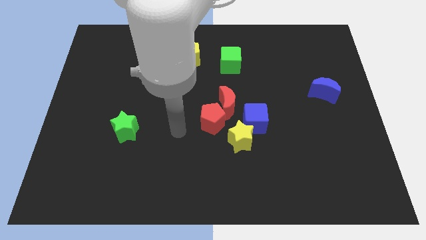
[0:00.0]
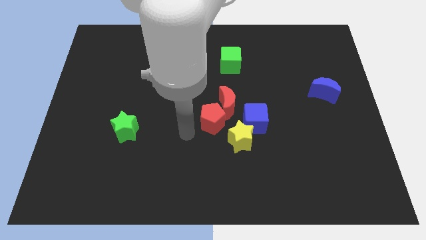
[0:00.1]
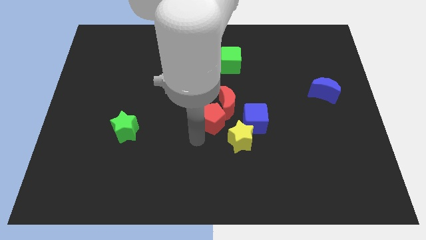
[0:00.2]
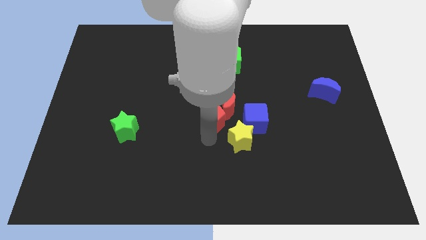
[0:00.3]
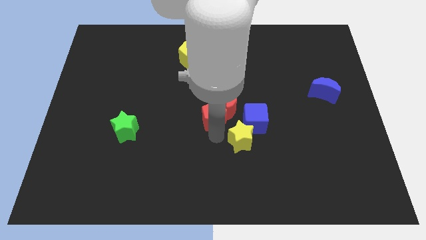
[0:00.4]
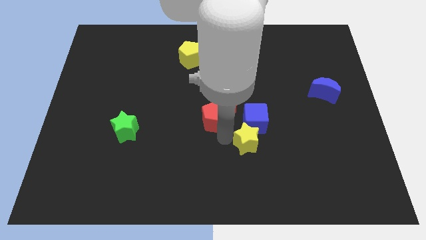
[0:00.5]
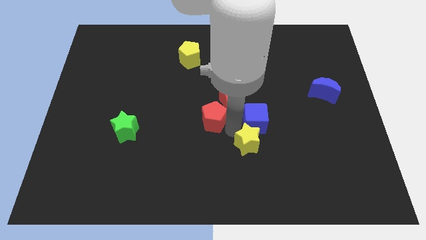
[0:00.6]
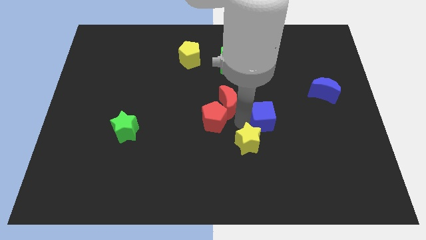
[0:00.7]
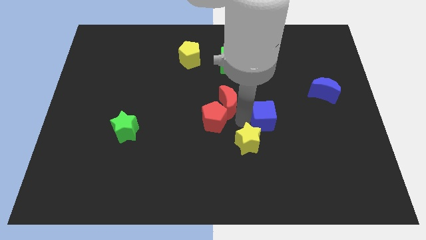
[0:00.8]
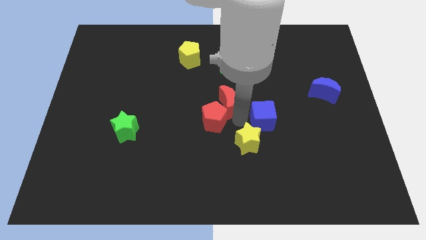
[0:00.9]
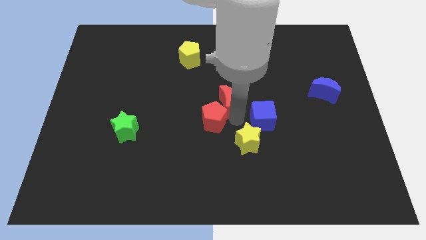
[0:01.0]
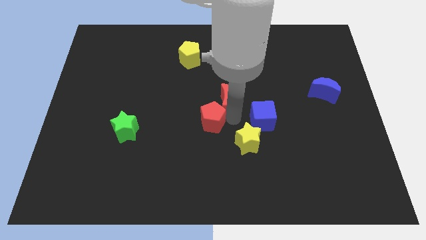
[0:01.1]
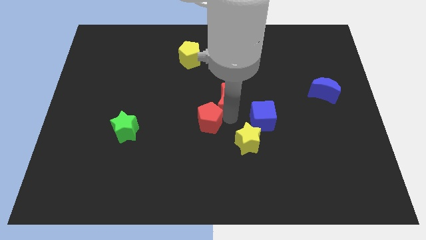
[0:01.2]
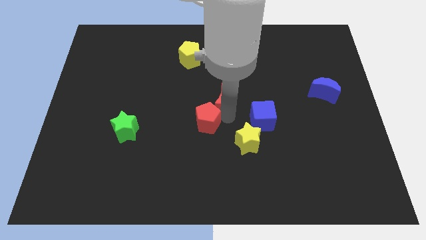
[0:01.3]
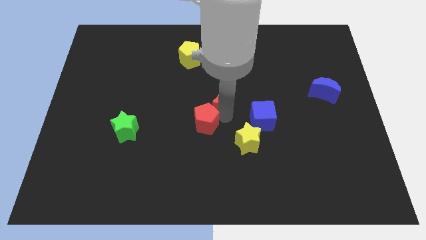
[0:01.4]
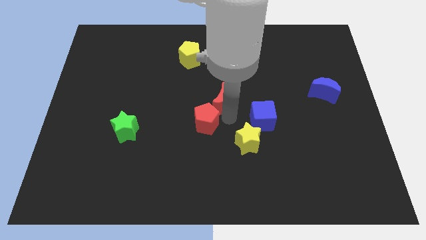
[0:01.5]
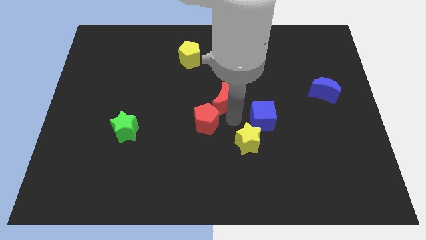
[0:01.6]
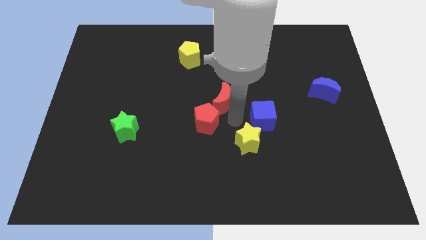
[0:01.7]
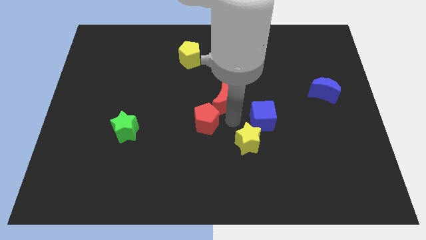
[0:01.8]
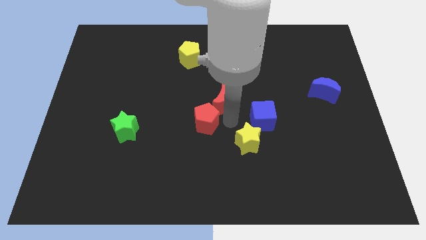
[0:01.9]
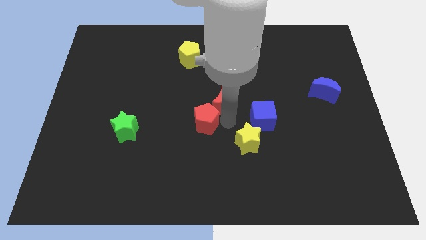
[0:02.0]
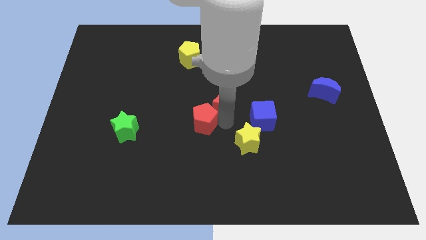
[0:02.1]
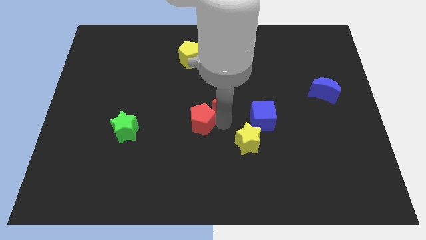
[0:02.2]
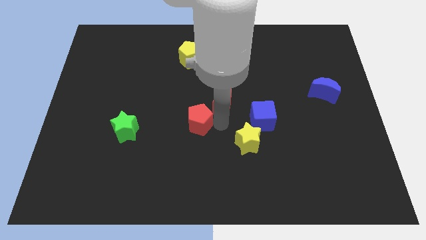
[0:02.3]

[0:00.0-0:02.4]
separate the red pentagon from the red moon, yellow star, and blue cube

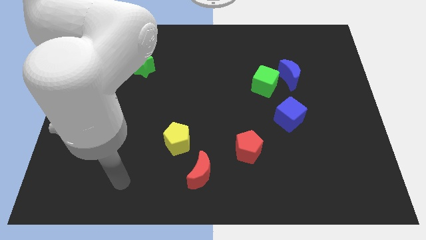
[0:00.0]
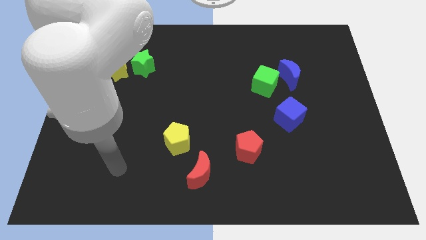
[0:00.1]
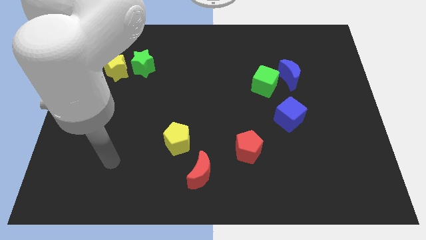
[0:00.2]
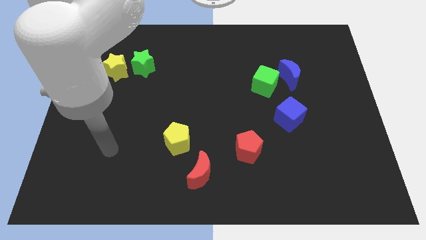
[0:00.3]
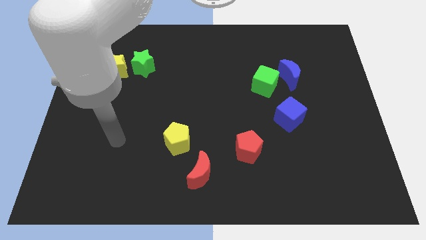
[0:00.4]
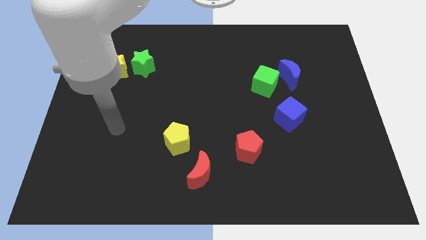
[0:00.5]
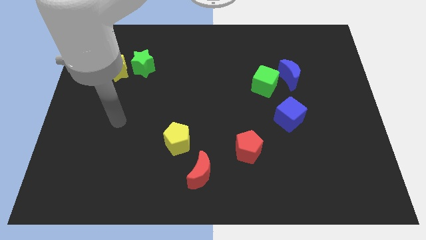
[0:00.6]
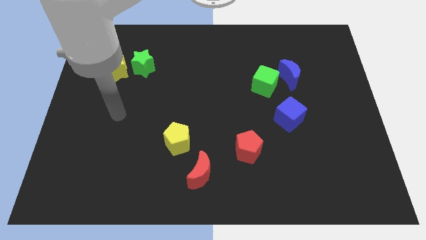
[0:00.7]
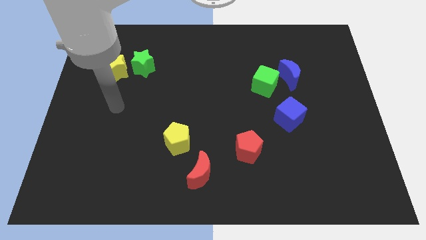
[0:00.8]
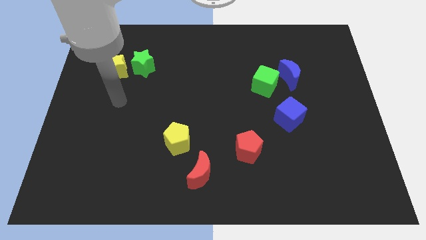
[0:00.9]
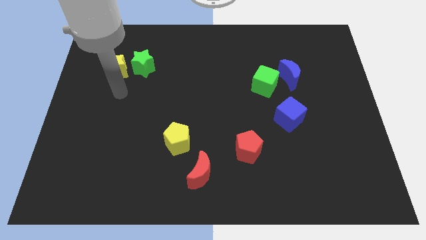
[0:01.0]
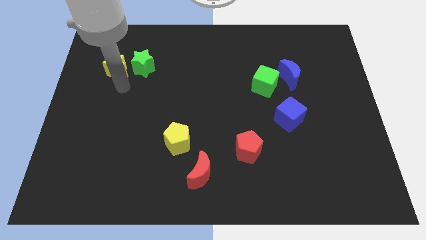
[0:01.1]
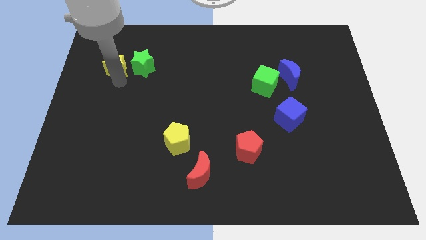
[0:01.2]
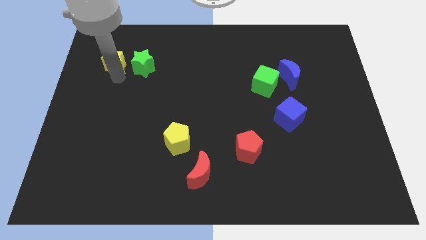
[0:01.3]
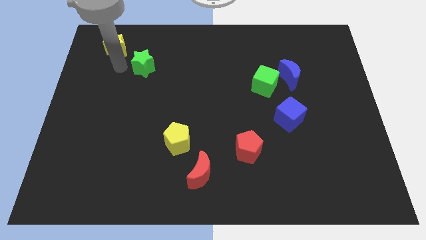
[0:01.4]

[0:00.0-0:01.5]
pull the green star apart from the yellow star

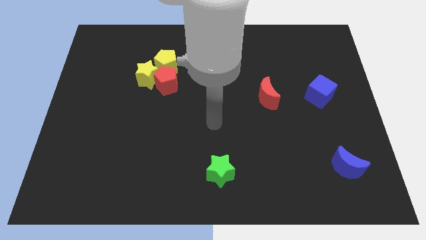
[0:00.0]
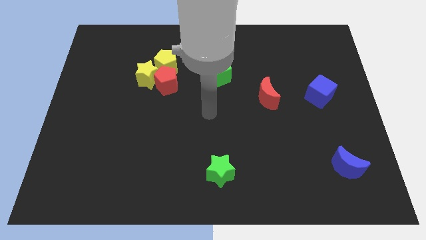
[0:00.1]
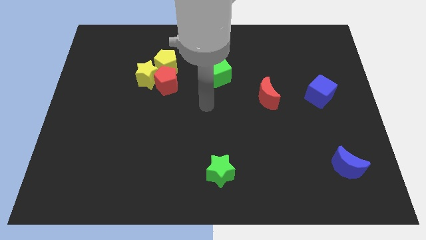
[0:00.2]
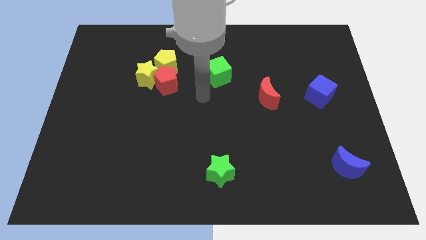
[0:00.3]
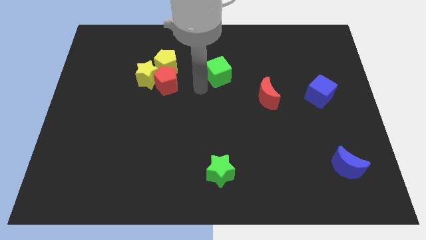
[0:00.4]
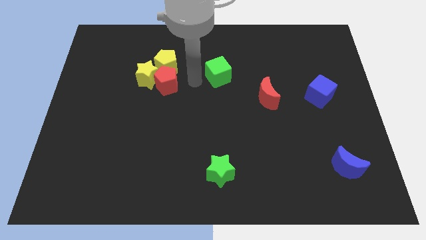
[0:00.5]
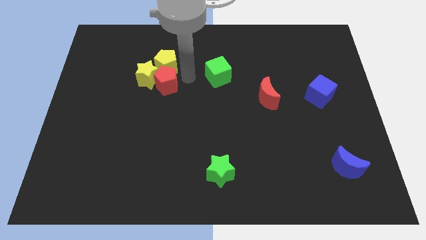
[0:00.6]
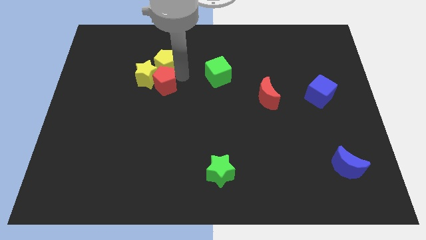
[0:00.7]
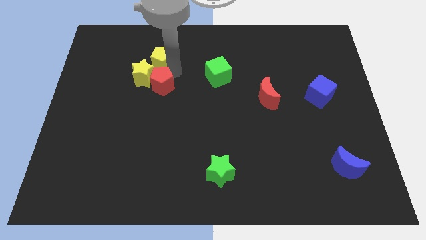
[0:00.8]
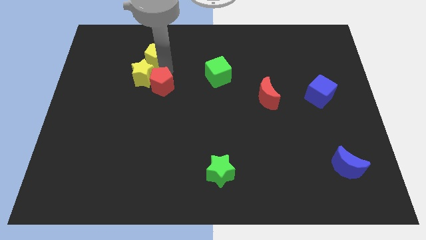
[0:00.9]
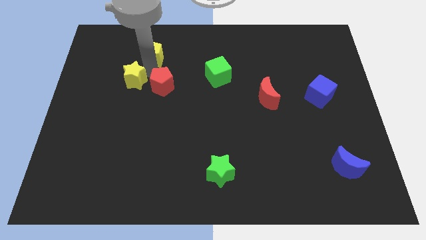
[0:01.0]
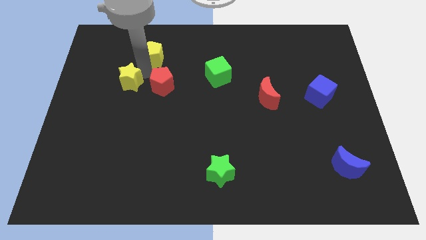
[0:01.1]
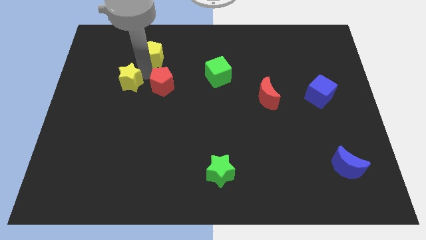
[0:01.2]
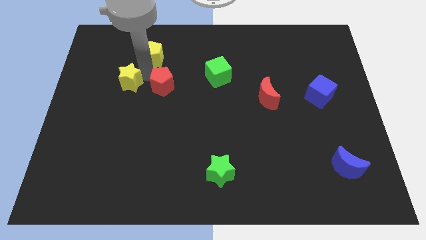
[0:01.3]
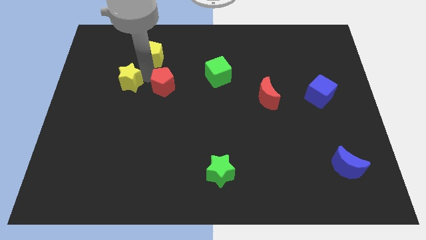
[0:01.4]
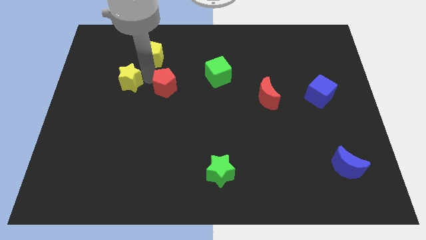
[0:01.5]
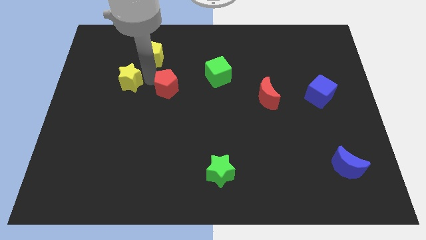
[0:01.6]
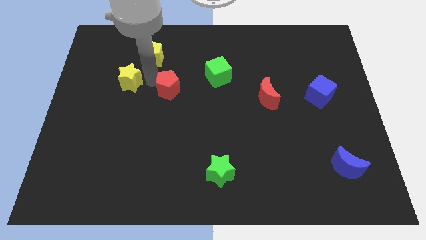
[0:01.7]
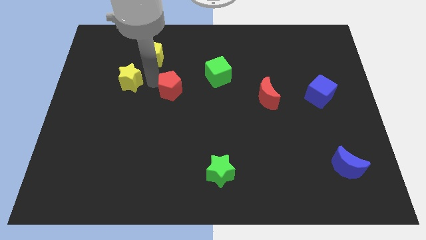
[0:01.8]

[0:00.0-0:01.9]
move the red pentagon away from the yellow star and yellow pentagon

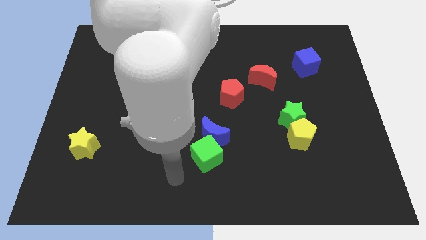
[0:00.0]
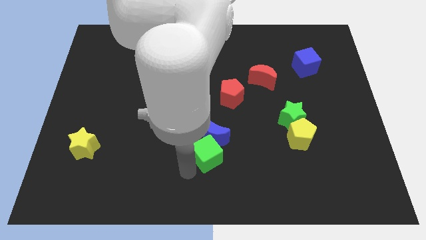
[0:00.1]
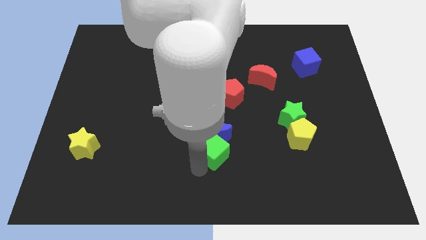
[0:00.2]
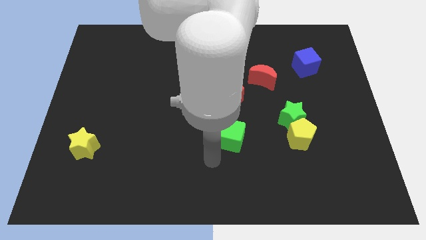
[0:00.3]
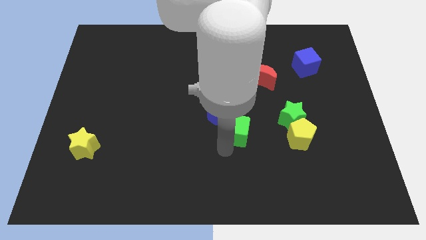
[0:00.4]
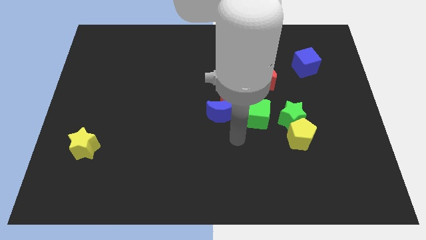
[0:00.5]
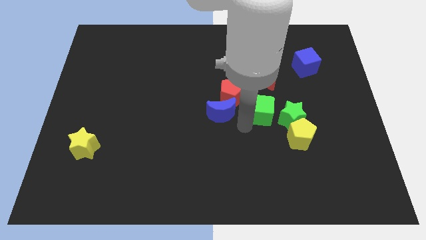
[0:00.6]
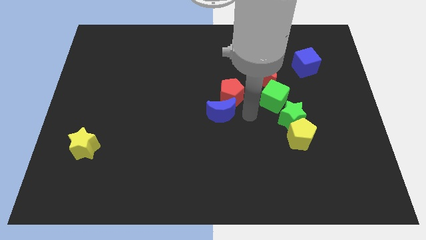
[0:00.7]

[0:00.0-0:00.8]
pull the blue moon apart from the green cube

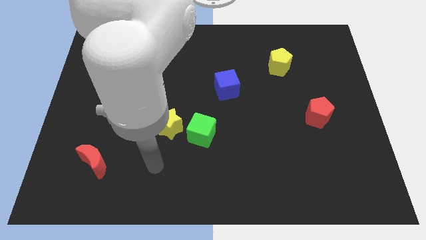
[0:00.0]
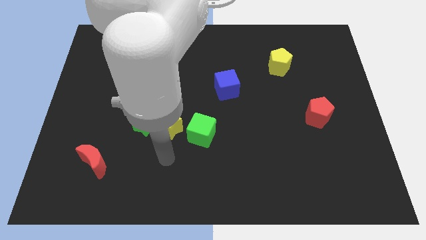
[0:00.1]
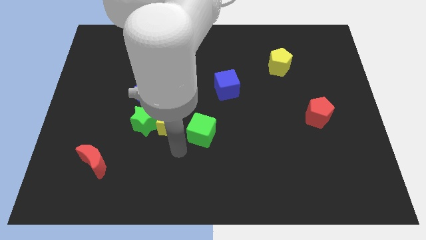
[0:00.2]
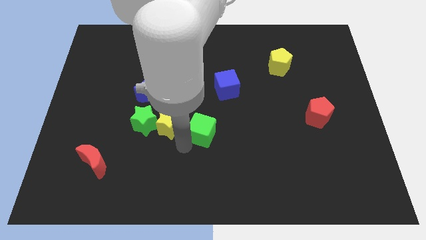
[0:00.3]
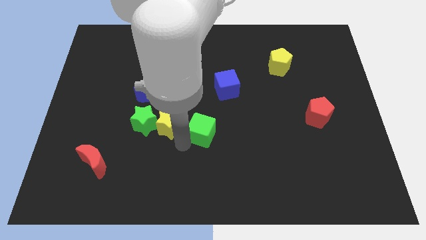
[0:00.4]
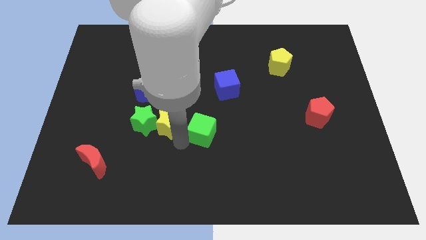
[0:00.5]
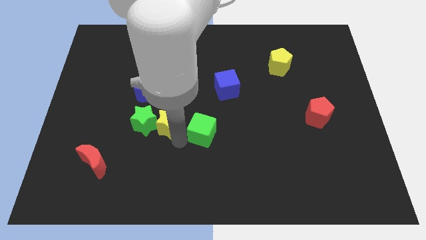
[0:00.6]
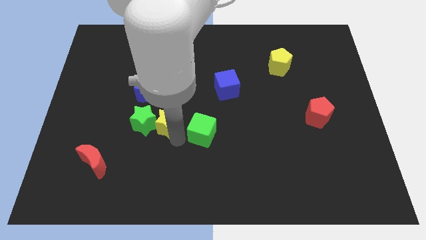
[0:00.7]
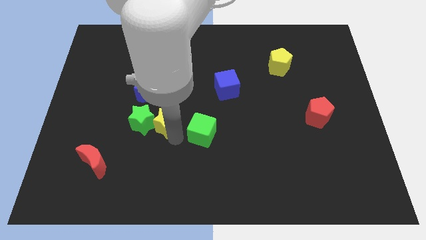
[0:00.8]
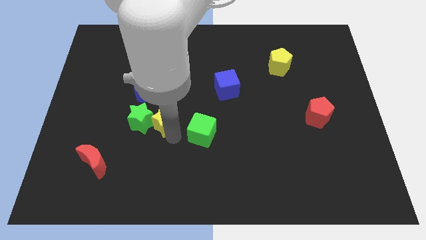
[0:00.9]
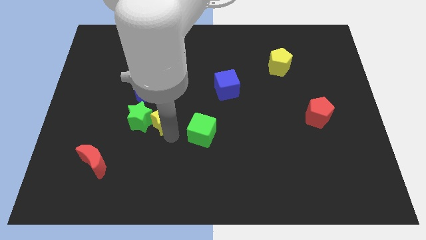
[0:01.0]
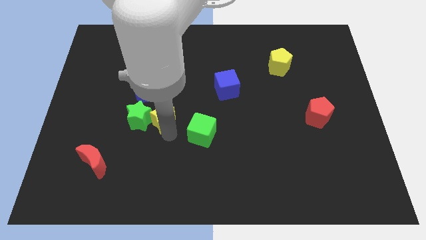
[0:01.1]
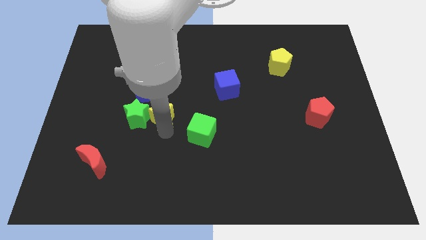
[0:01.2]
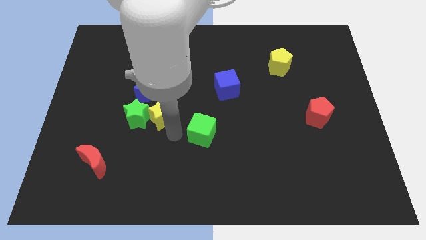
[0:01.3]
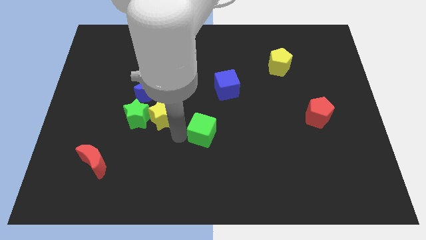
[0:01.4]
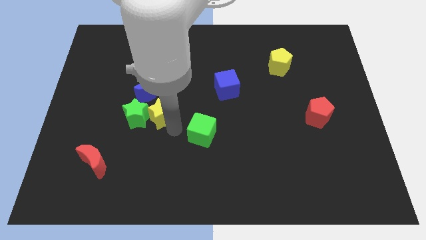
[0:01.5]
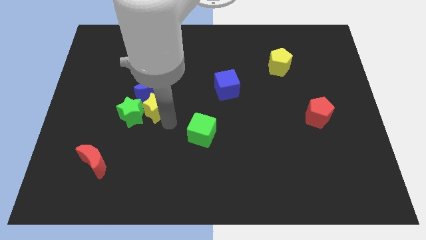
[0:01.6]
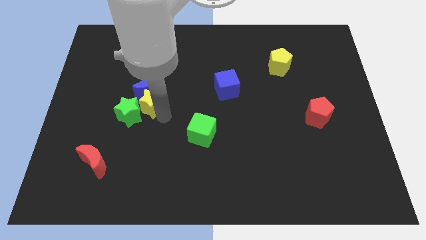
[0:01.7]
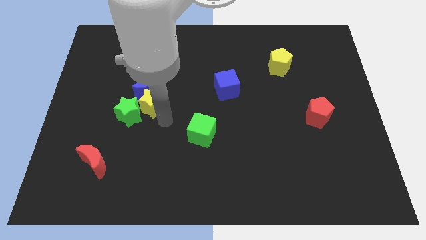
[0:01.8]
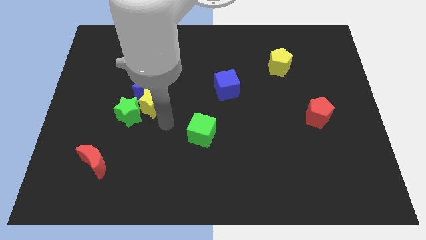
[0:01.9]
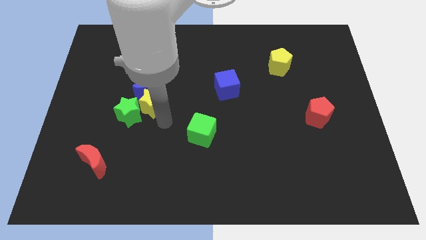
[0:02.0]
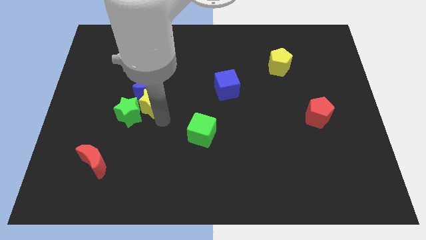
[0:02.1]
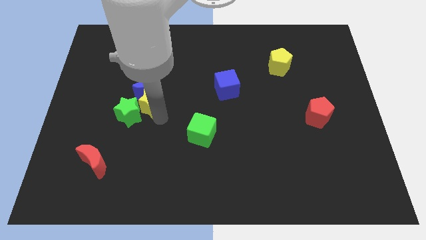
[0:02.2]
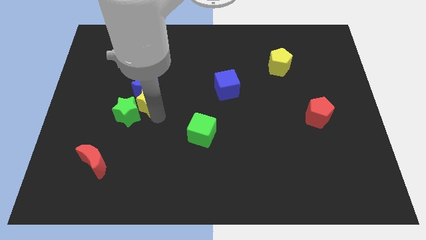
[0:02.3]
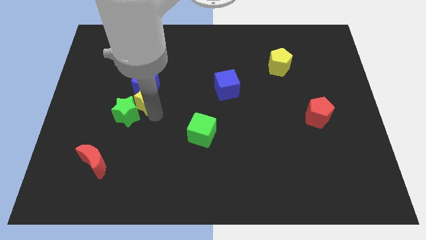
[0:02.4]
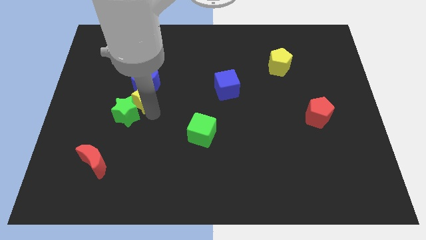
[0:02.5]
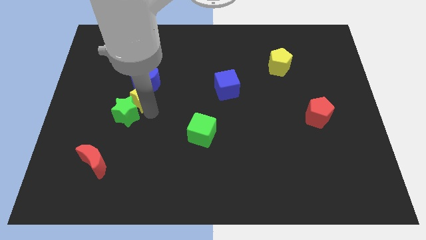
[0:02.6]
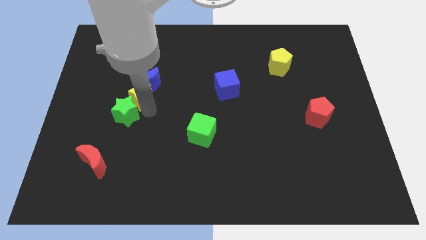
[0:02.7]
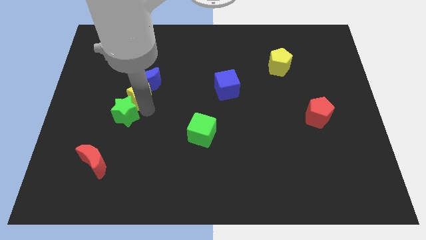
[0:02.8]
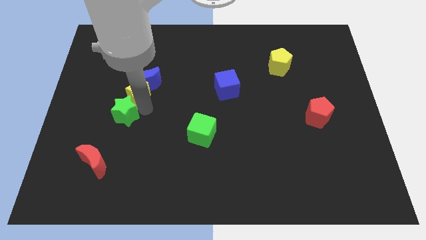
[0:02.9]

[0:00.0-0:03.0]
separate the yellow star from the green star and green cube
